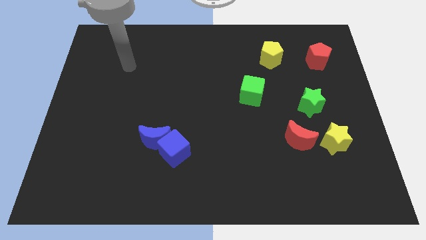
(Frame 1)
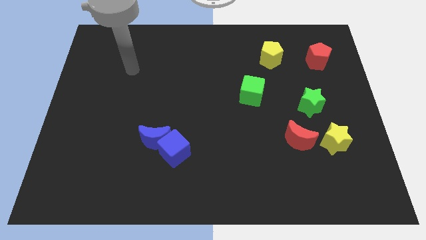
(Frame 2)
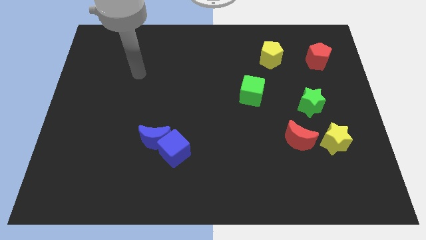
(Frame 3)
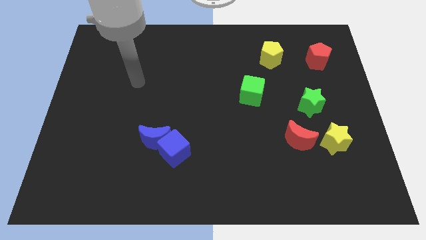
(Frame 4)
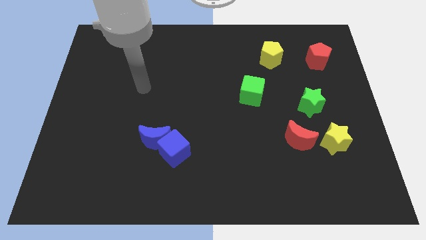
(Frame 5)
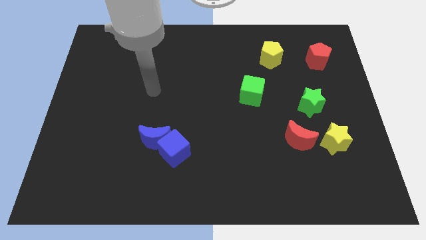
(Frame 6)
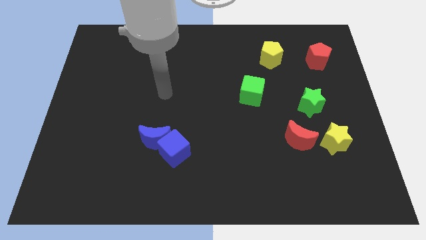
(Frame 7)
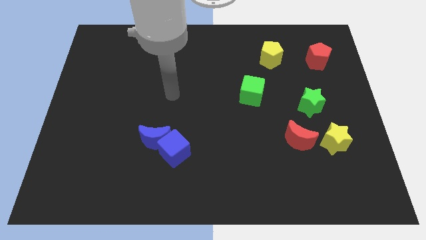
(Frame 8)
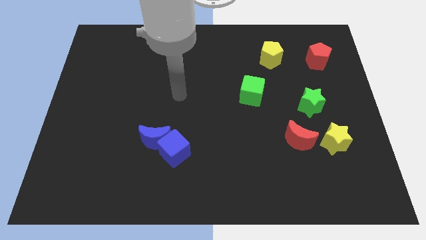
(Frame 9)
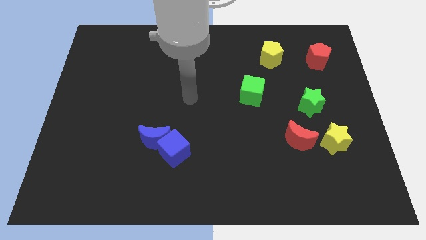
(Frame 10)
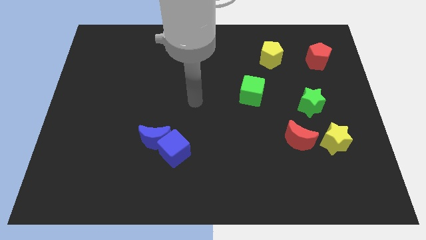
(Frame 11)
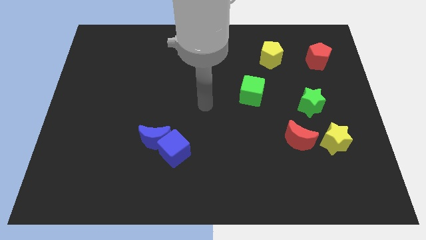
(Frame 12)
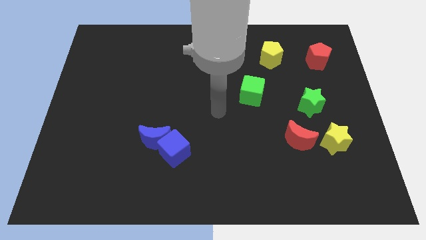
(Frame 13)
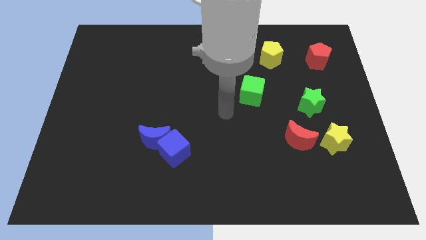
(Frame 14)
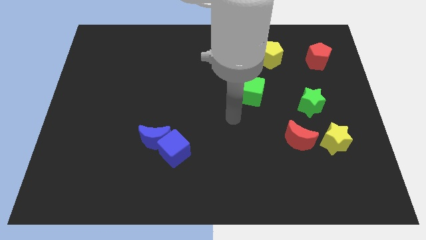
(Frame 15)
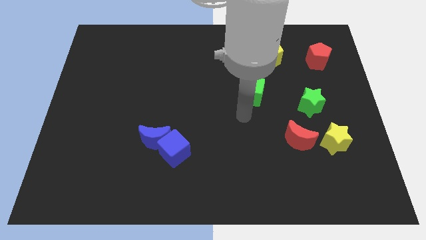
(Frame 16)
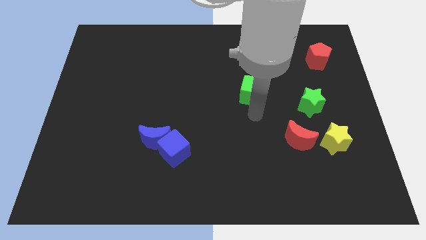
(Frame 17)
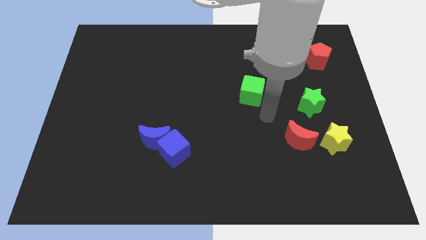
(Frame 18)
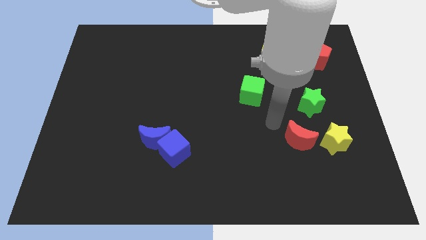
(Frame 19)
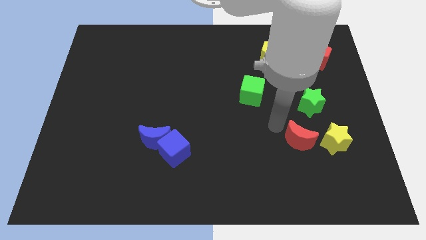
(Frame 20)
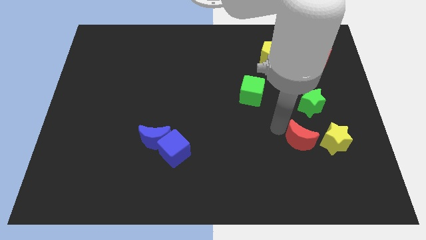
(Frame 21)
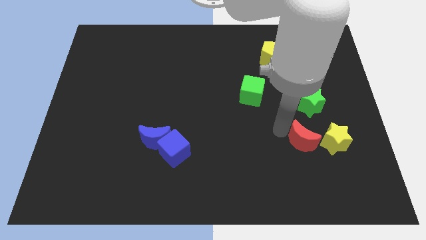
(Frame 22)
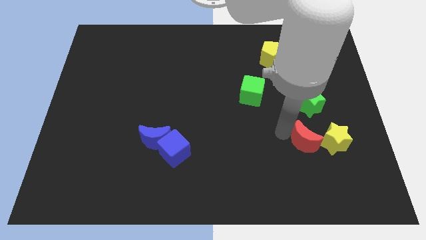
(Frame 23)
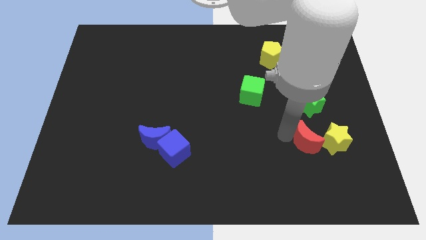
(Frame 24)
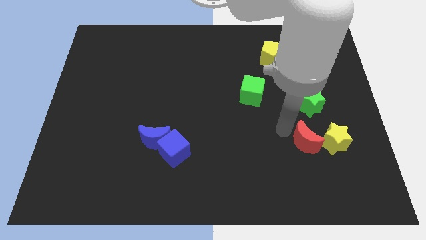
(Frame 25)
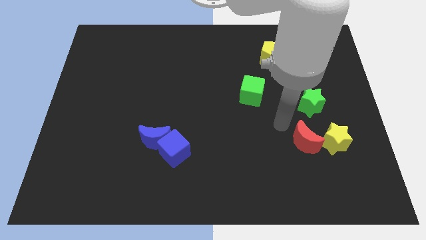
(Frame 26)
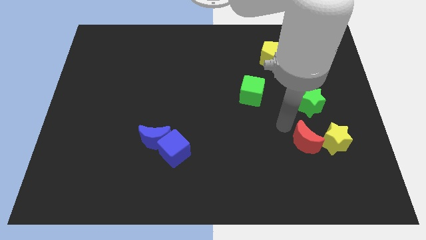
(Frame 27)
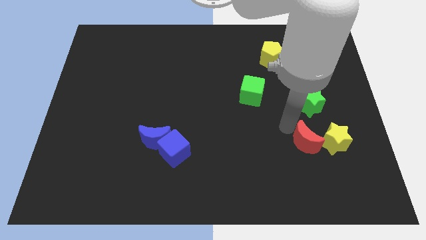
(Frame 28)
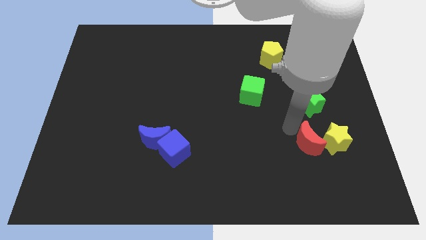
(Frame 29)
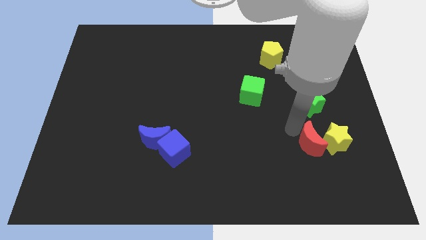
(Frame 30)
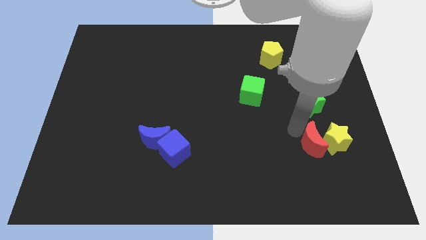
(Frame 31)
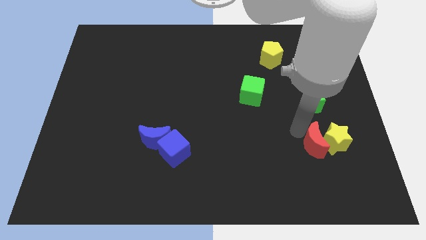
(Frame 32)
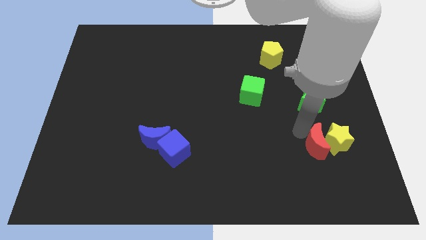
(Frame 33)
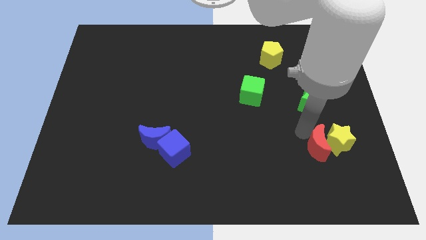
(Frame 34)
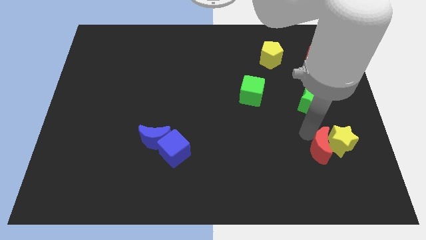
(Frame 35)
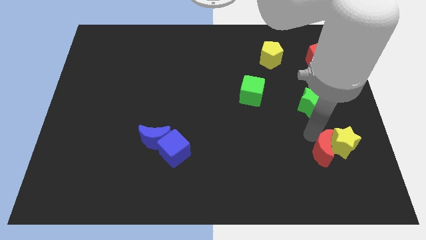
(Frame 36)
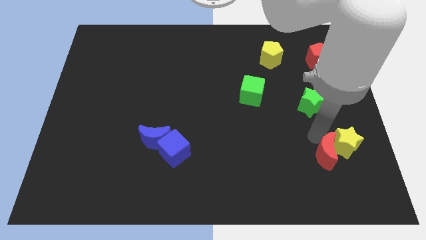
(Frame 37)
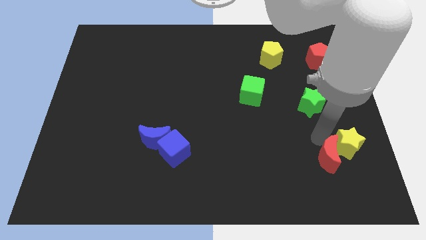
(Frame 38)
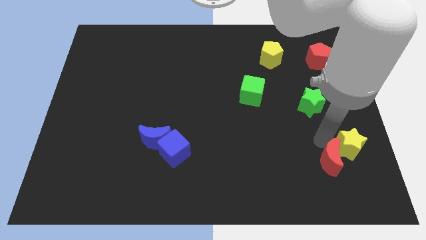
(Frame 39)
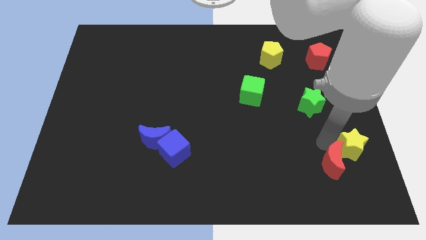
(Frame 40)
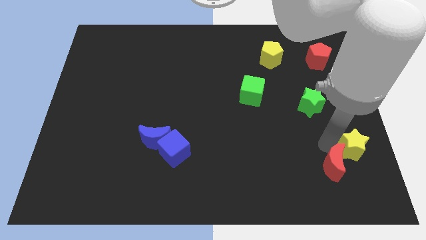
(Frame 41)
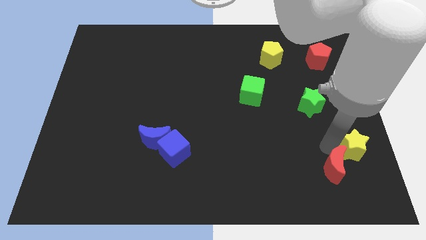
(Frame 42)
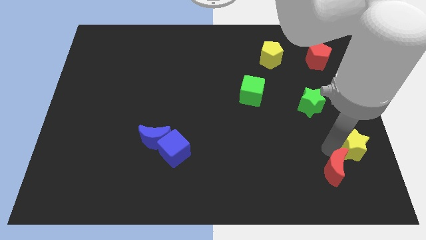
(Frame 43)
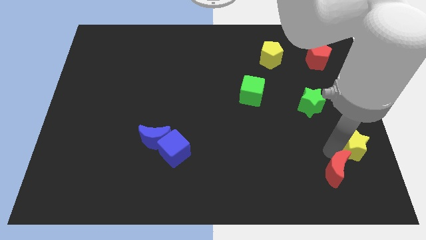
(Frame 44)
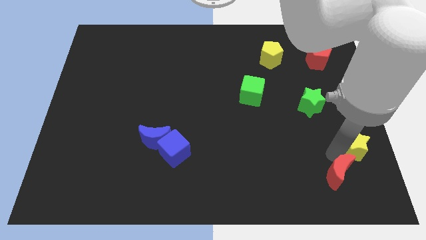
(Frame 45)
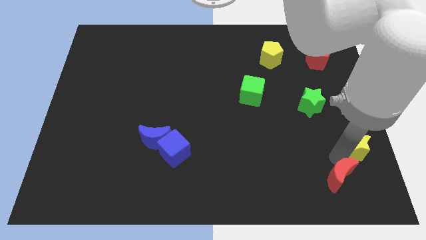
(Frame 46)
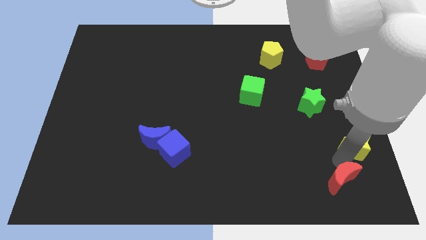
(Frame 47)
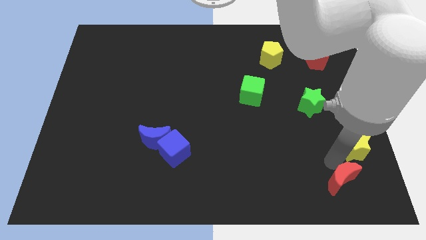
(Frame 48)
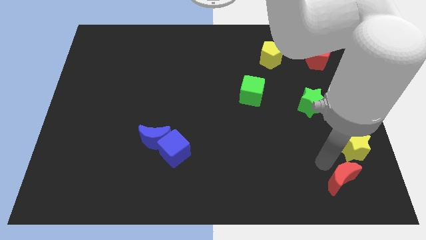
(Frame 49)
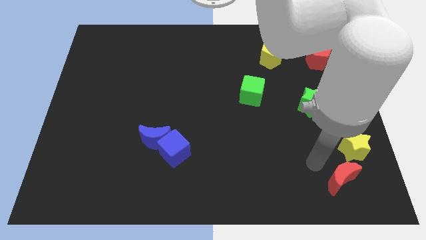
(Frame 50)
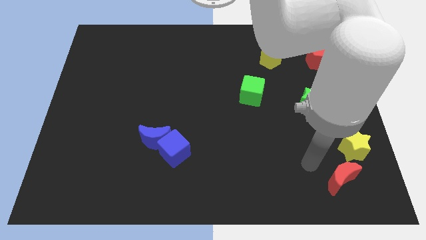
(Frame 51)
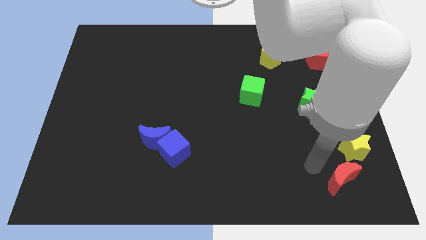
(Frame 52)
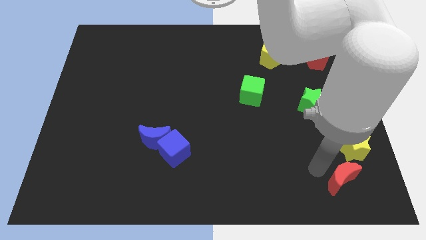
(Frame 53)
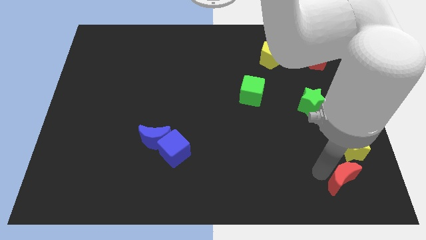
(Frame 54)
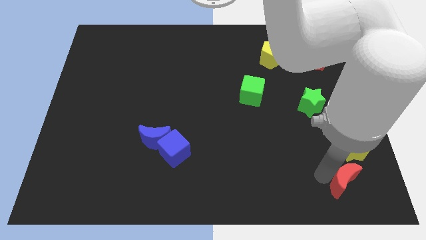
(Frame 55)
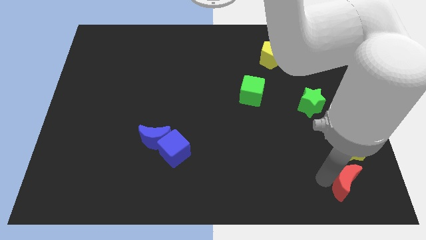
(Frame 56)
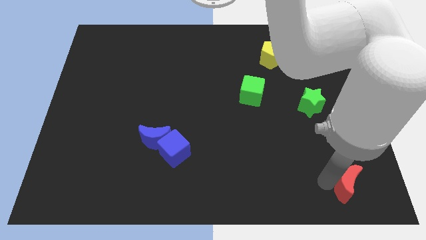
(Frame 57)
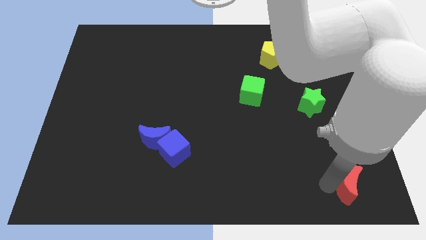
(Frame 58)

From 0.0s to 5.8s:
slide the red moon to the bottom right

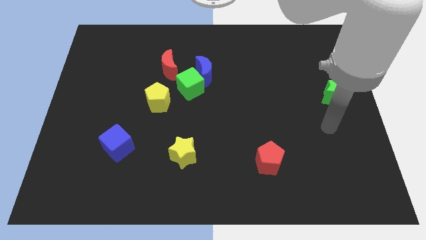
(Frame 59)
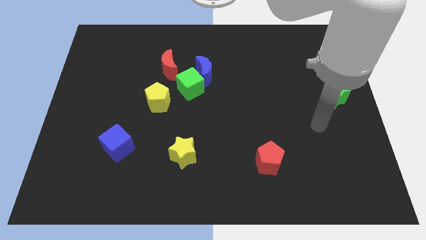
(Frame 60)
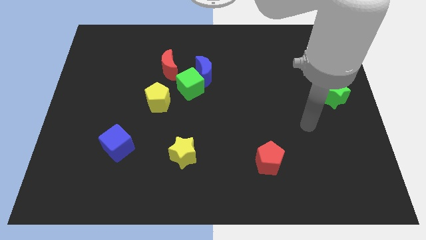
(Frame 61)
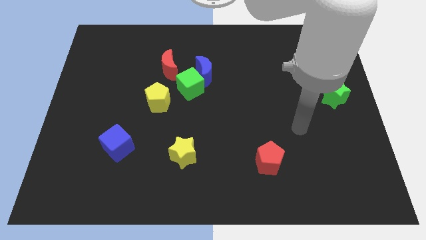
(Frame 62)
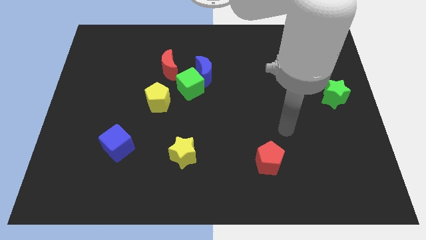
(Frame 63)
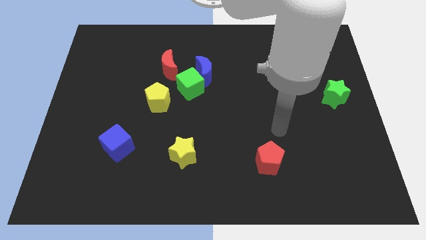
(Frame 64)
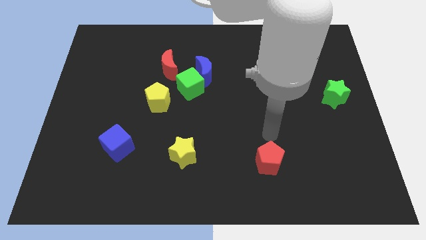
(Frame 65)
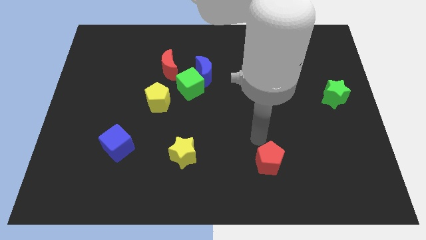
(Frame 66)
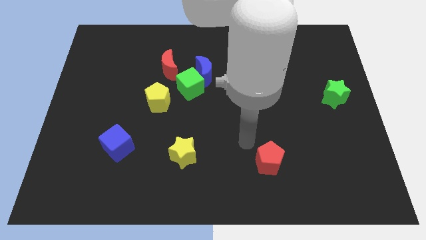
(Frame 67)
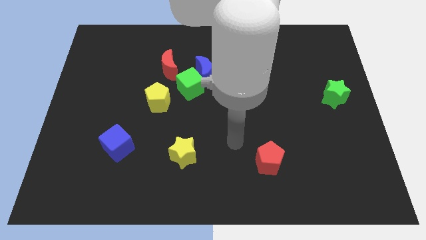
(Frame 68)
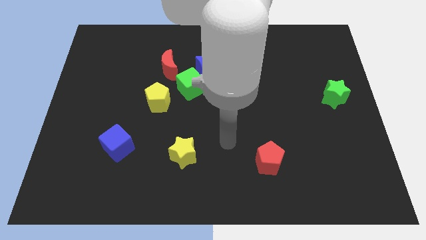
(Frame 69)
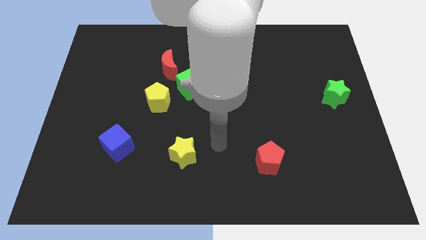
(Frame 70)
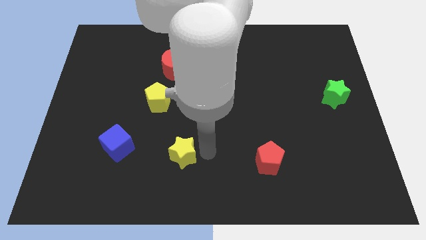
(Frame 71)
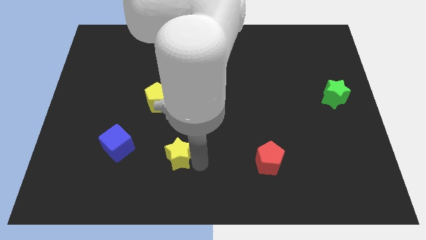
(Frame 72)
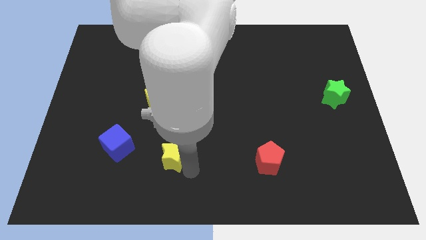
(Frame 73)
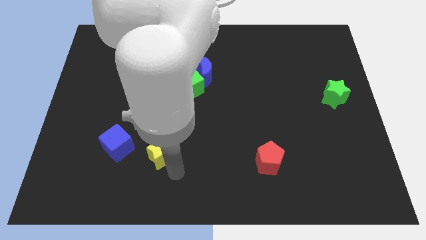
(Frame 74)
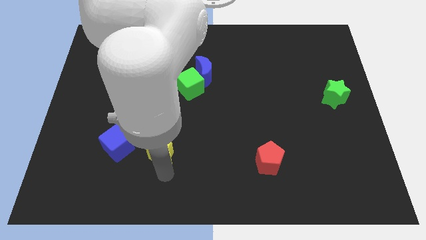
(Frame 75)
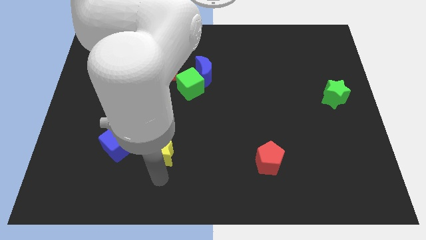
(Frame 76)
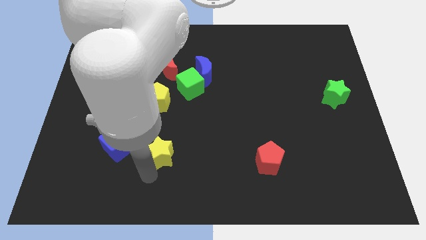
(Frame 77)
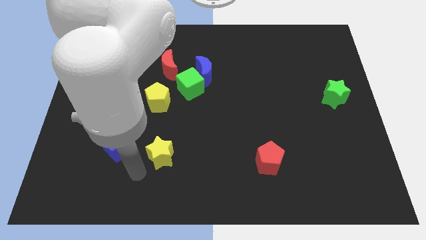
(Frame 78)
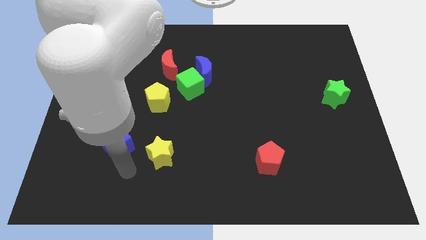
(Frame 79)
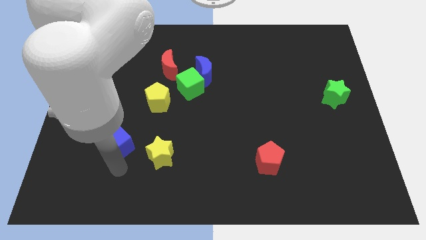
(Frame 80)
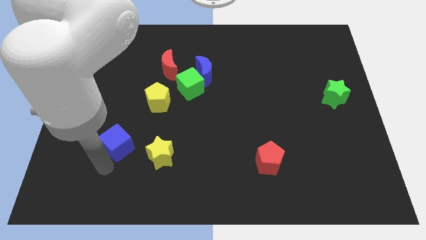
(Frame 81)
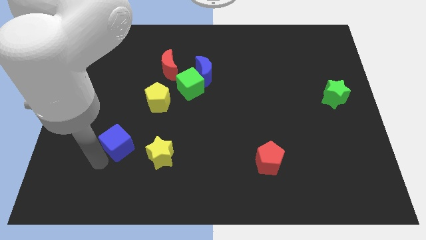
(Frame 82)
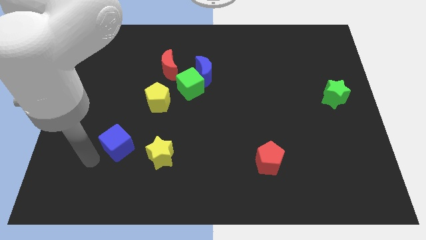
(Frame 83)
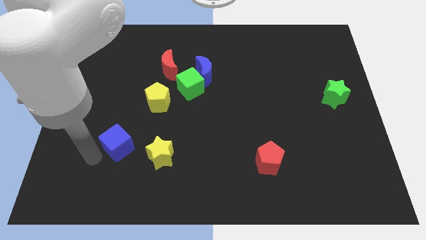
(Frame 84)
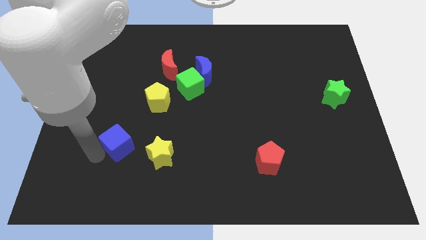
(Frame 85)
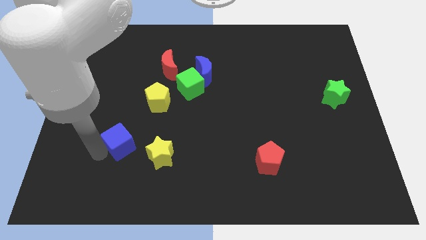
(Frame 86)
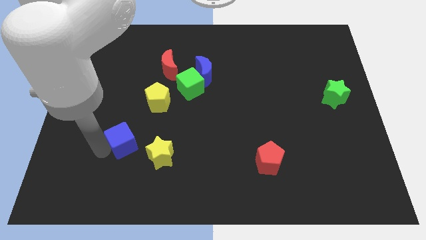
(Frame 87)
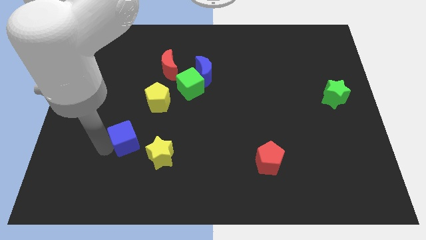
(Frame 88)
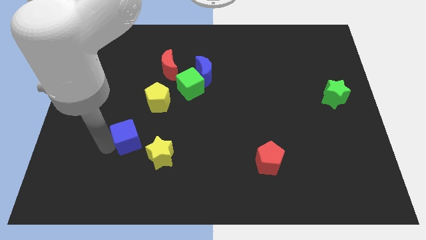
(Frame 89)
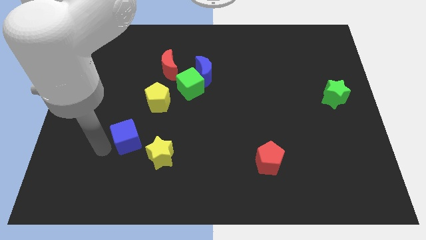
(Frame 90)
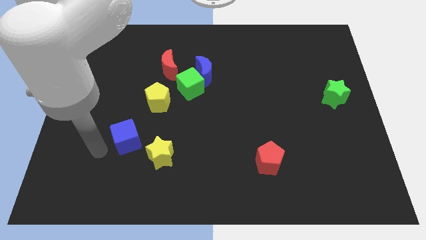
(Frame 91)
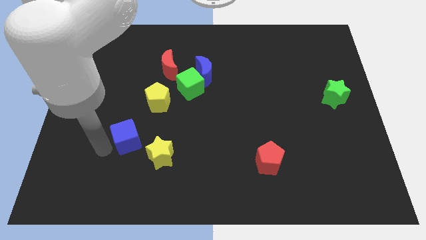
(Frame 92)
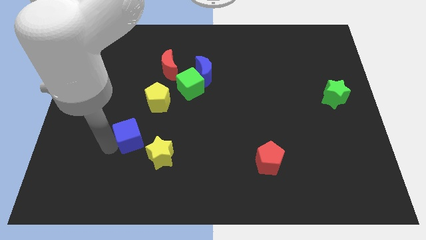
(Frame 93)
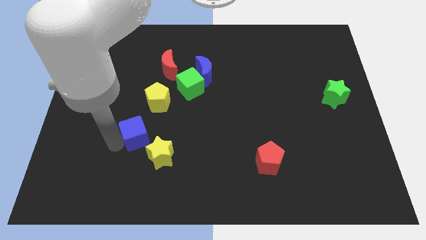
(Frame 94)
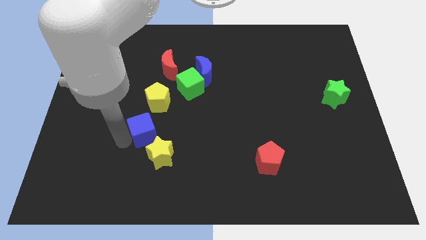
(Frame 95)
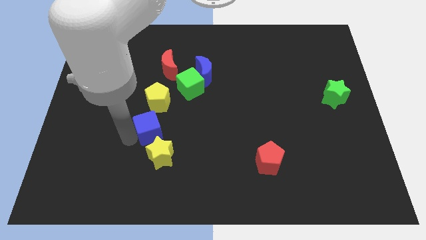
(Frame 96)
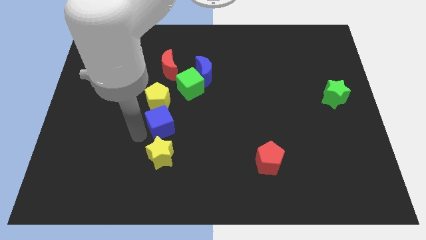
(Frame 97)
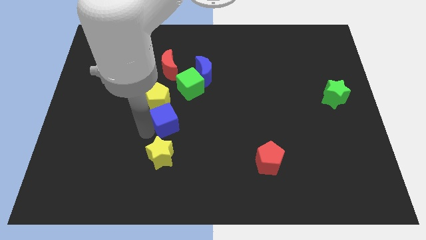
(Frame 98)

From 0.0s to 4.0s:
slide the blue cube to the center of the board
